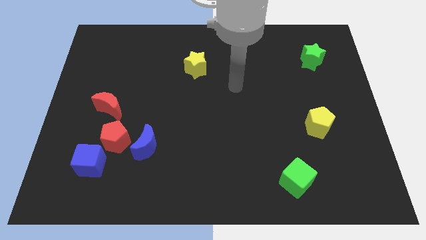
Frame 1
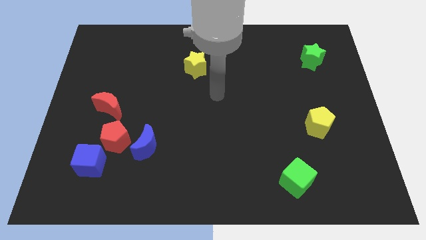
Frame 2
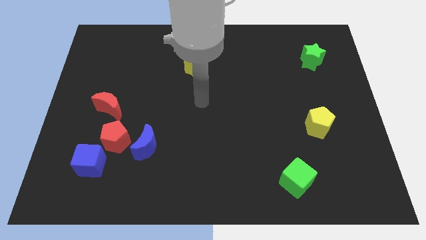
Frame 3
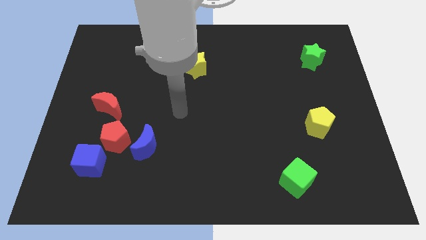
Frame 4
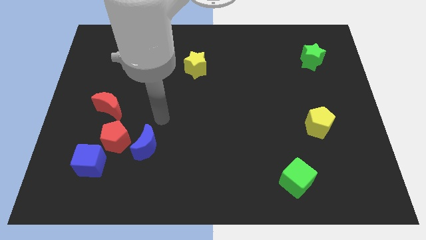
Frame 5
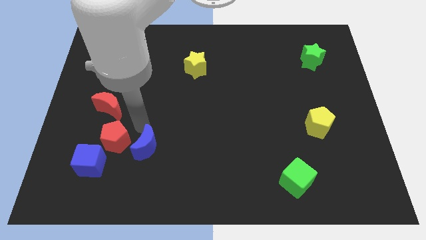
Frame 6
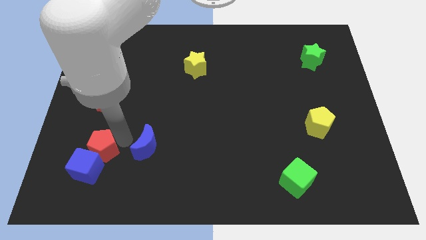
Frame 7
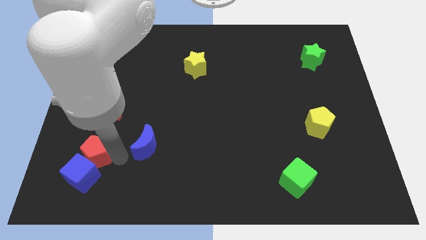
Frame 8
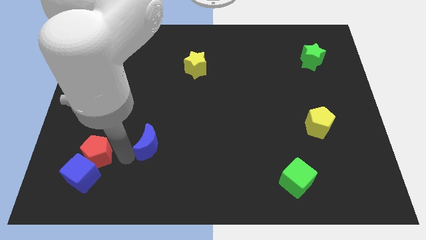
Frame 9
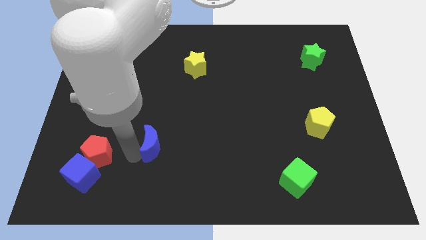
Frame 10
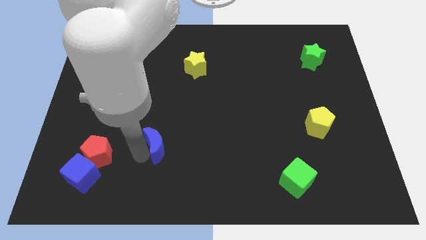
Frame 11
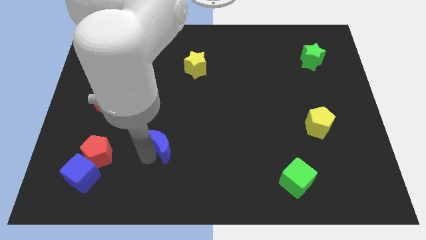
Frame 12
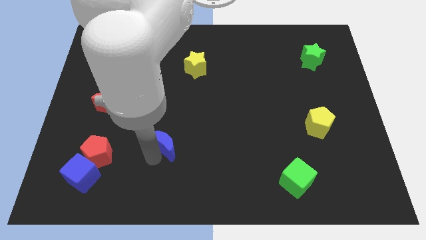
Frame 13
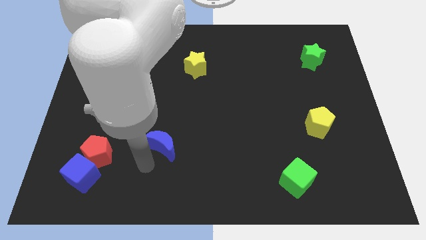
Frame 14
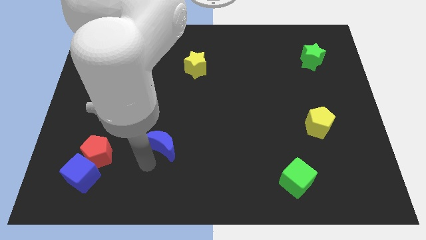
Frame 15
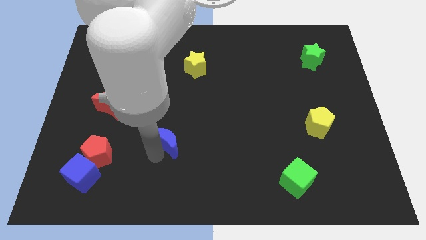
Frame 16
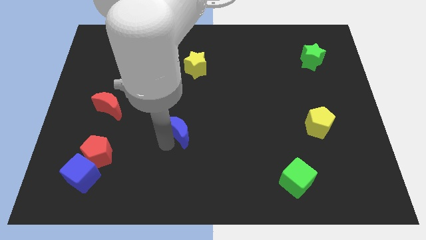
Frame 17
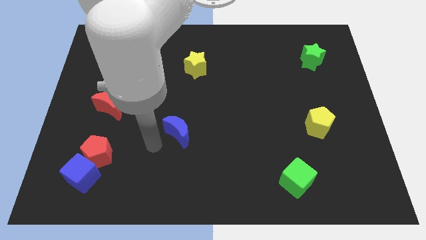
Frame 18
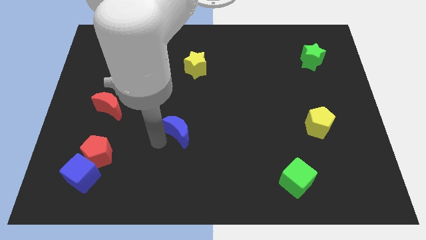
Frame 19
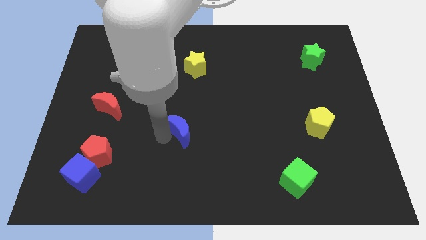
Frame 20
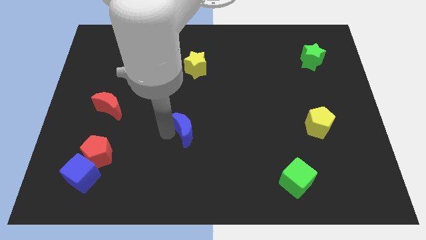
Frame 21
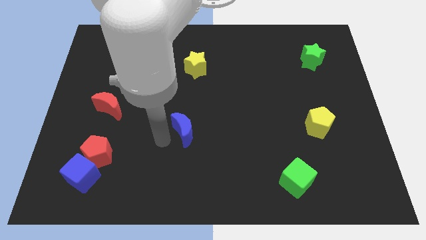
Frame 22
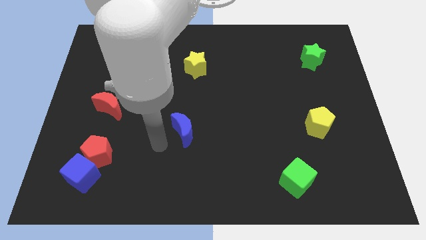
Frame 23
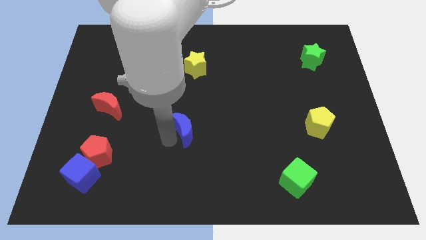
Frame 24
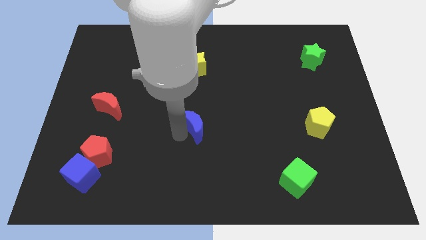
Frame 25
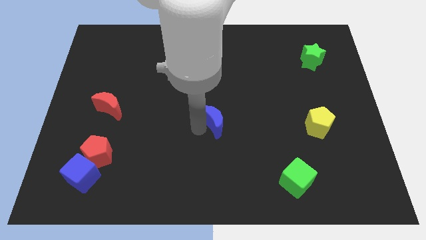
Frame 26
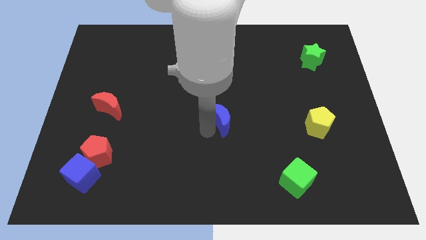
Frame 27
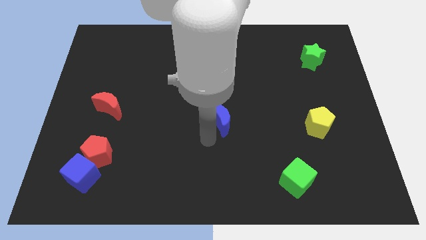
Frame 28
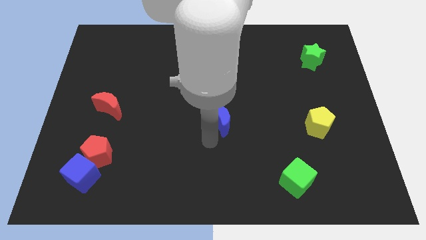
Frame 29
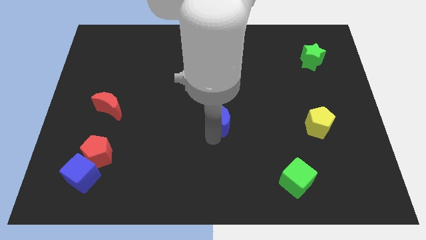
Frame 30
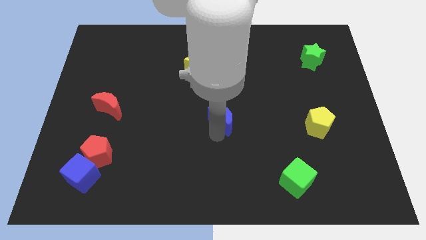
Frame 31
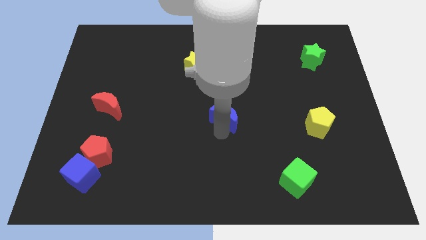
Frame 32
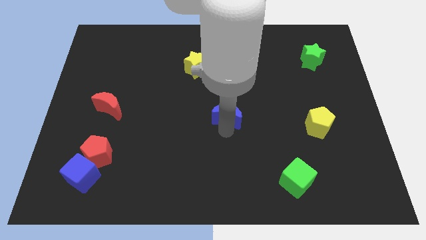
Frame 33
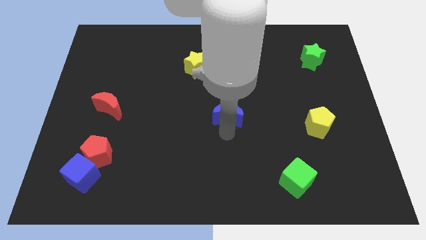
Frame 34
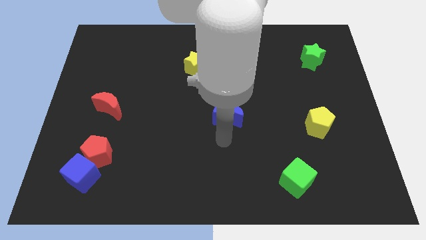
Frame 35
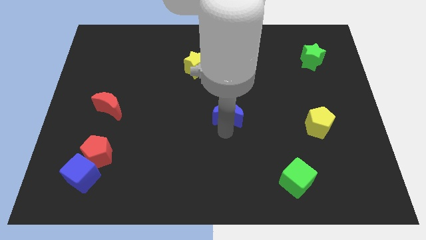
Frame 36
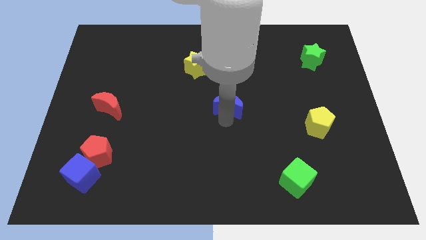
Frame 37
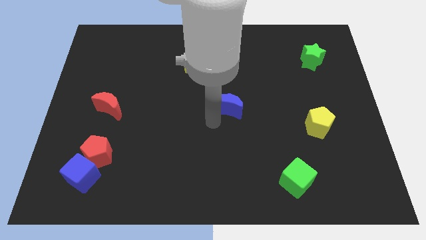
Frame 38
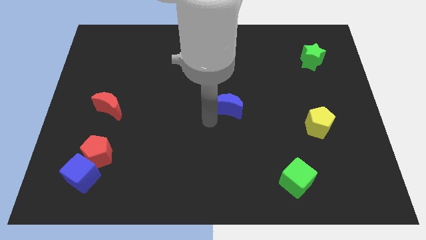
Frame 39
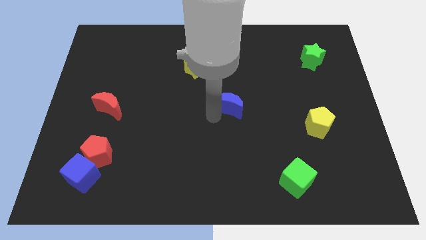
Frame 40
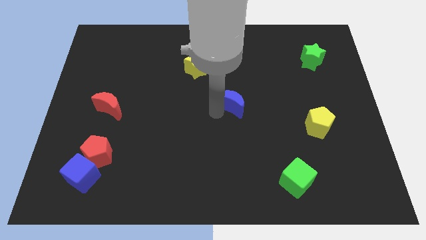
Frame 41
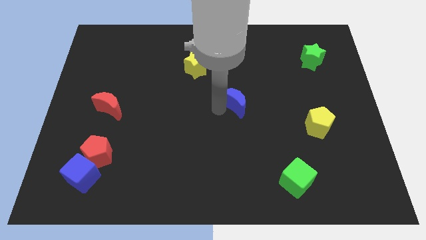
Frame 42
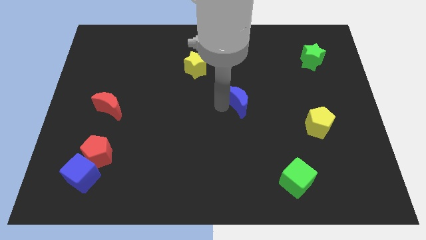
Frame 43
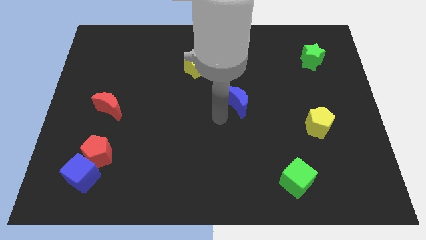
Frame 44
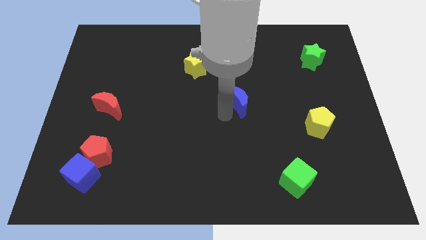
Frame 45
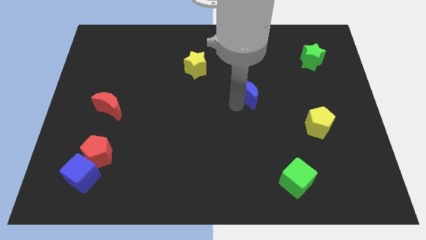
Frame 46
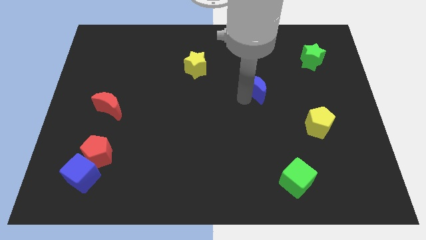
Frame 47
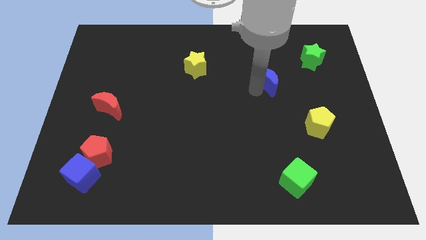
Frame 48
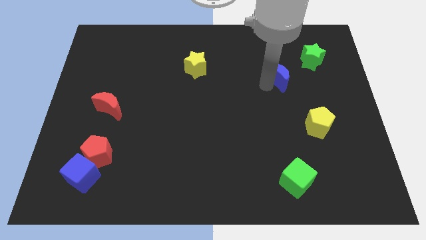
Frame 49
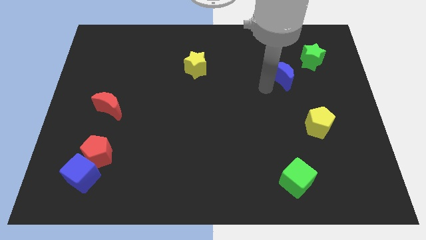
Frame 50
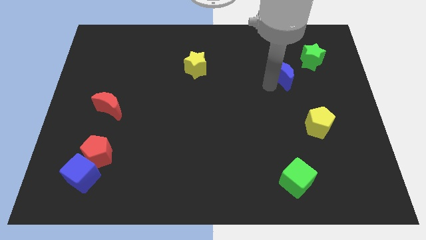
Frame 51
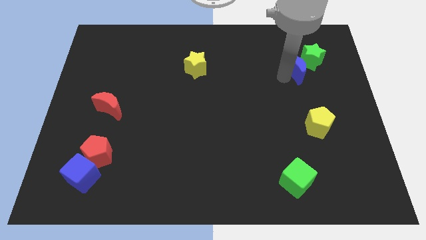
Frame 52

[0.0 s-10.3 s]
move the blue moon close to the green star

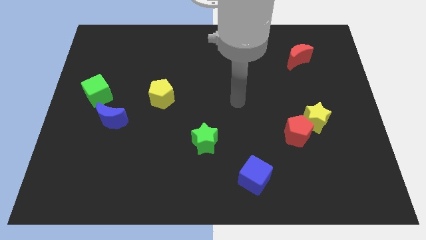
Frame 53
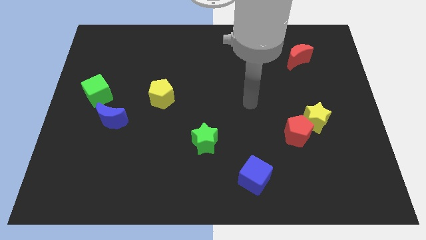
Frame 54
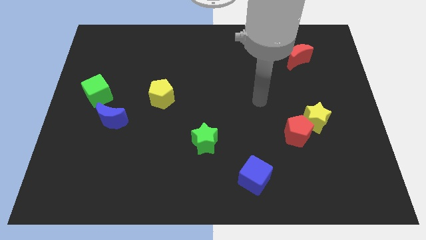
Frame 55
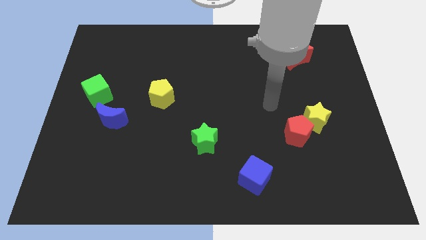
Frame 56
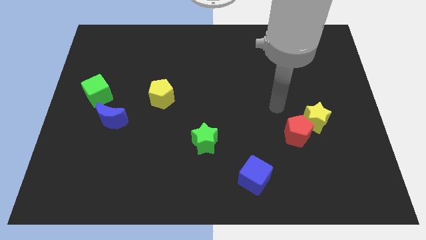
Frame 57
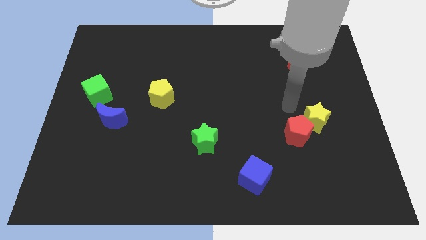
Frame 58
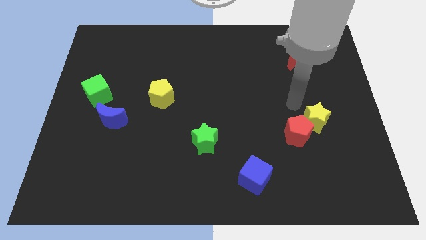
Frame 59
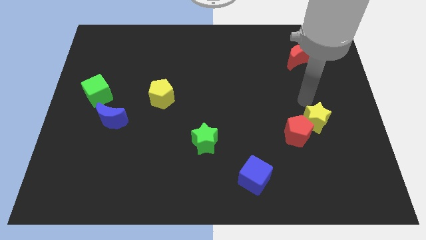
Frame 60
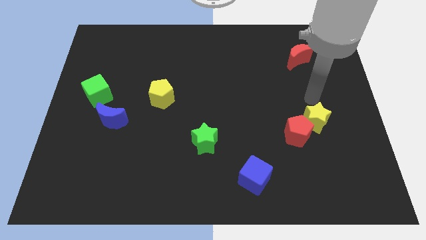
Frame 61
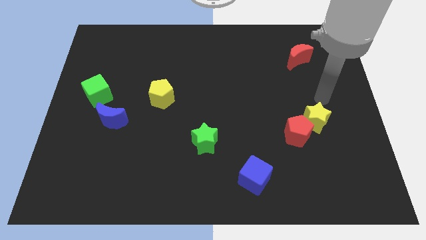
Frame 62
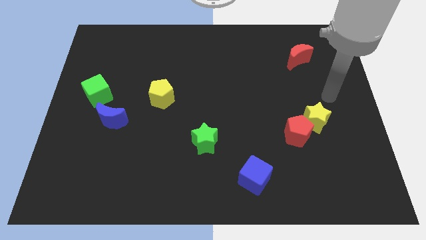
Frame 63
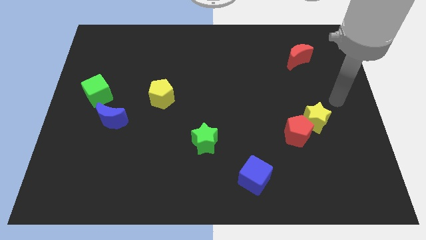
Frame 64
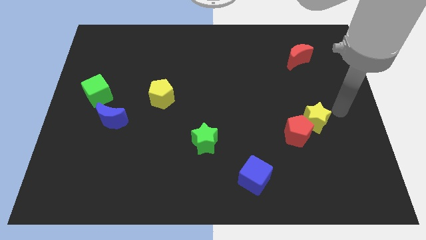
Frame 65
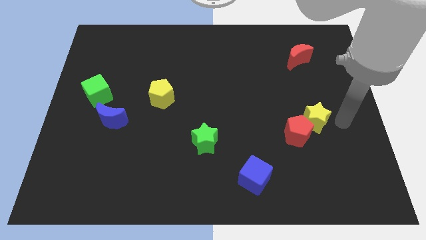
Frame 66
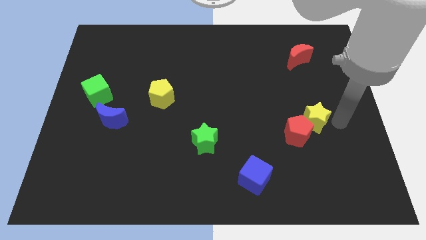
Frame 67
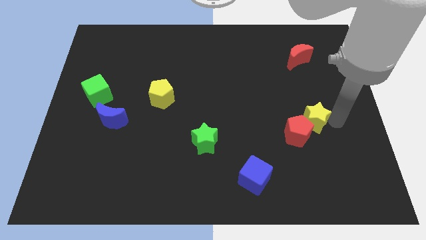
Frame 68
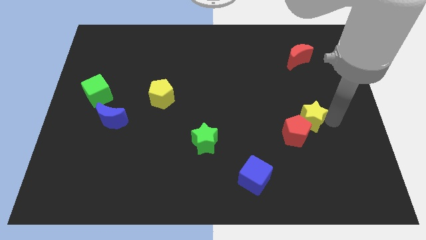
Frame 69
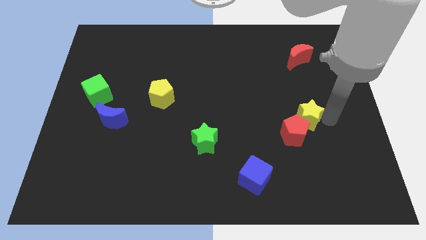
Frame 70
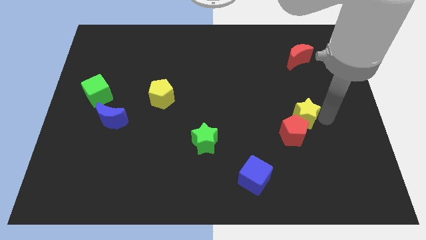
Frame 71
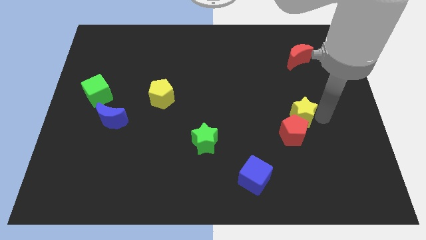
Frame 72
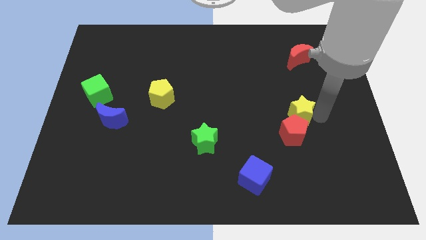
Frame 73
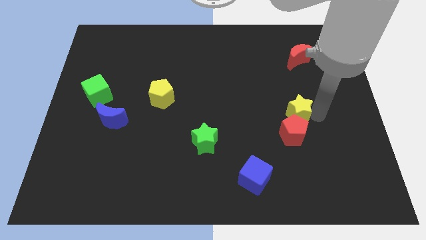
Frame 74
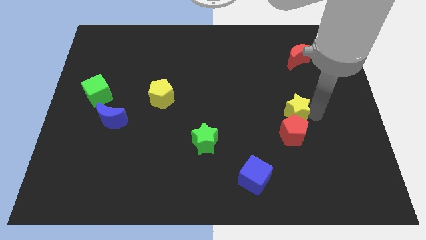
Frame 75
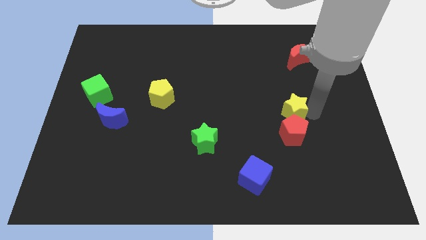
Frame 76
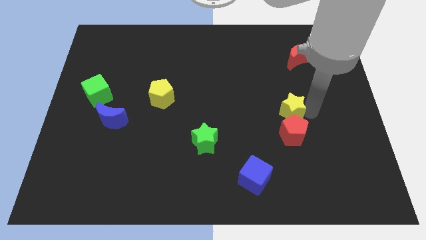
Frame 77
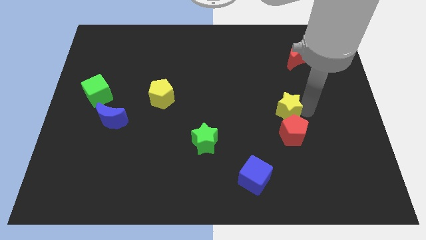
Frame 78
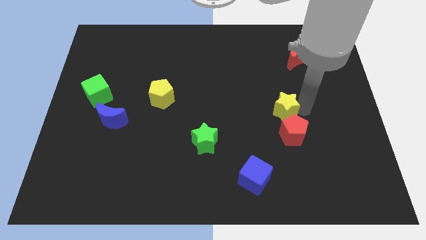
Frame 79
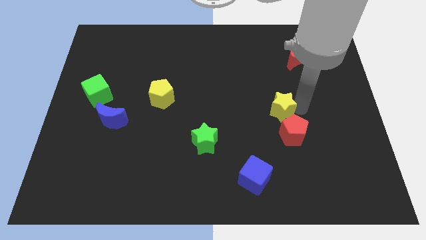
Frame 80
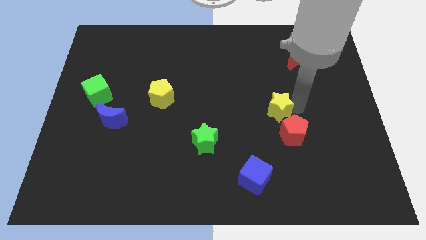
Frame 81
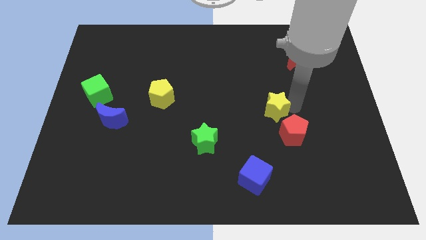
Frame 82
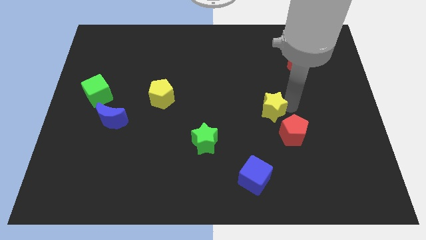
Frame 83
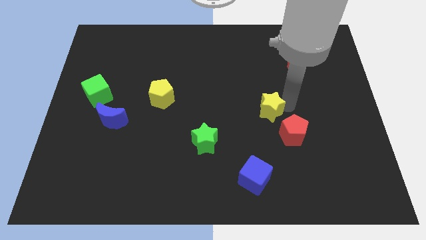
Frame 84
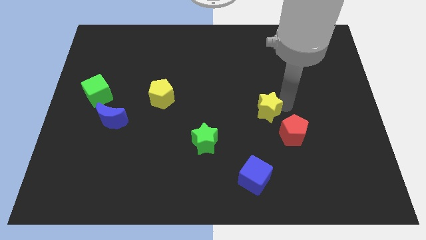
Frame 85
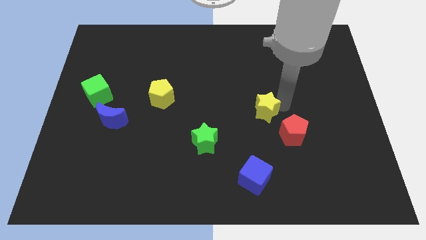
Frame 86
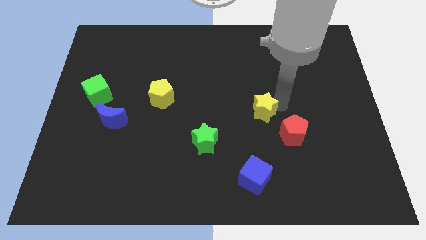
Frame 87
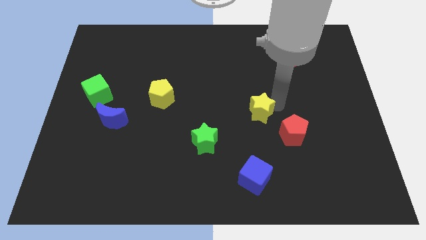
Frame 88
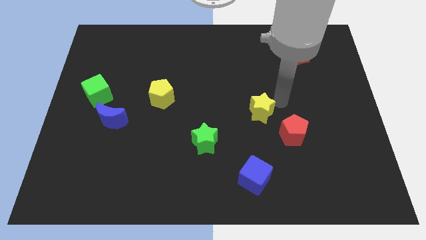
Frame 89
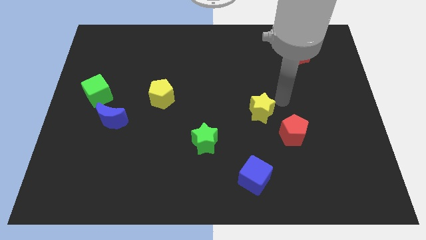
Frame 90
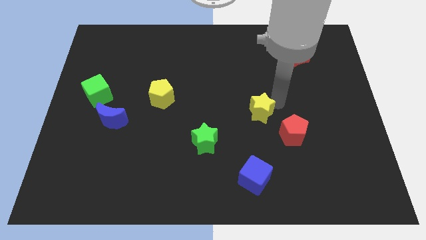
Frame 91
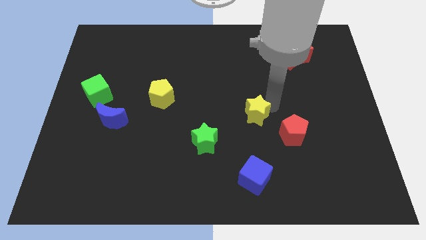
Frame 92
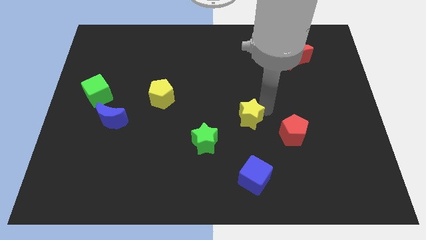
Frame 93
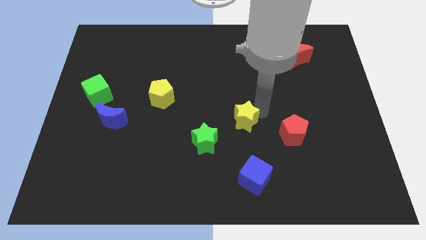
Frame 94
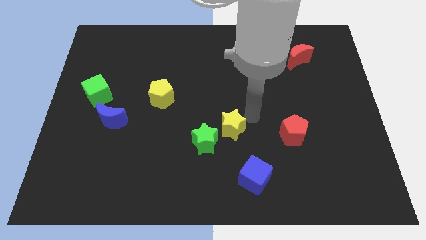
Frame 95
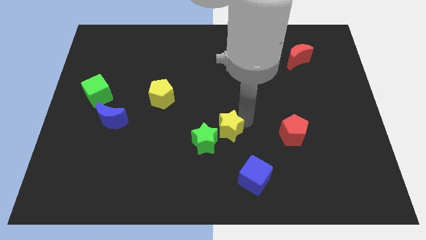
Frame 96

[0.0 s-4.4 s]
slide the yellow star to the green star
